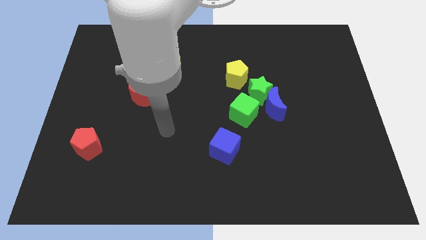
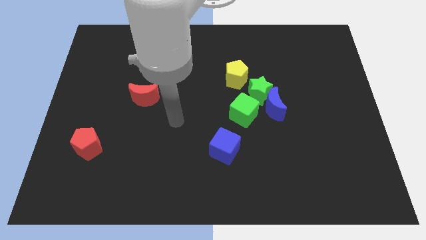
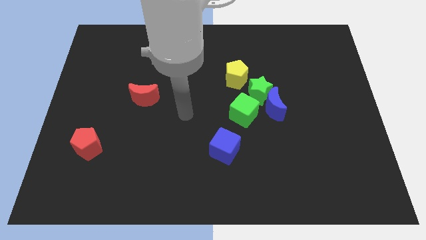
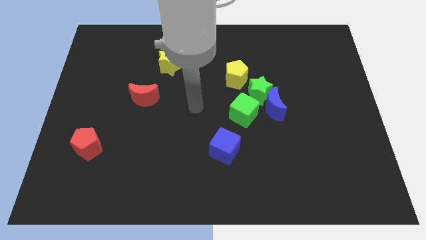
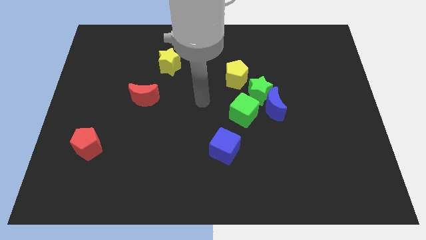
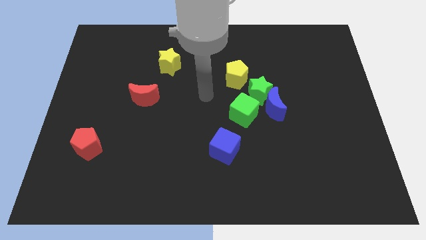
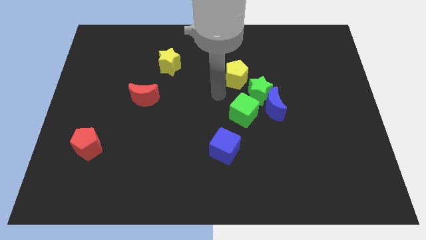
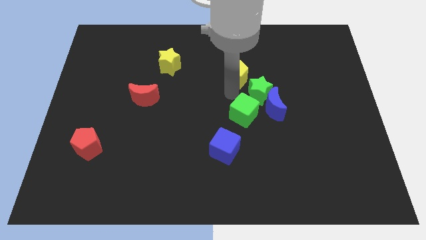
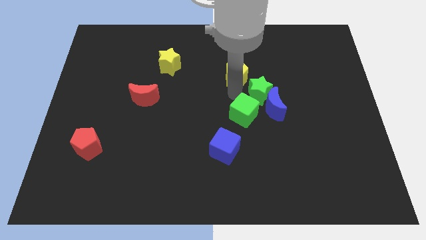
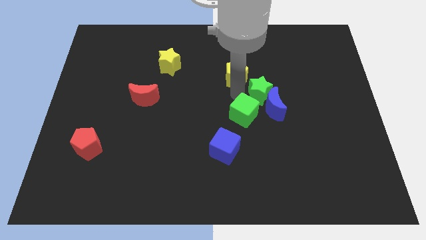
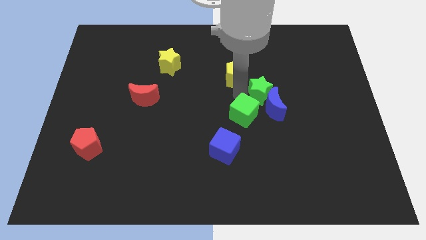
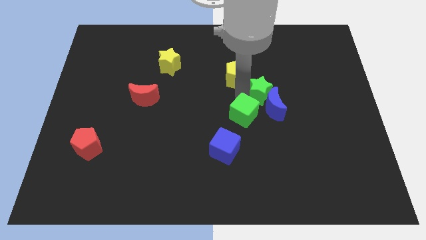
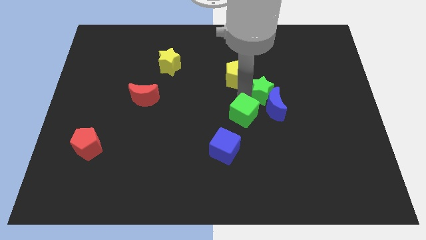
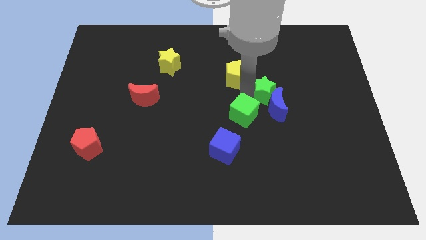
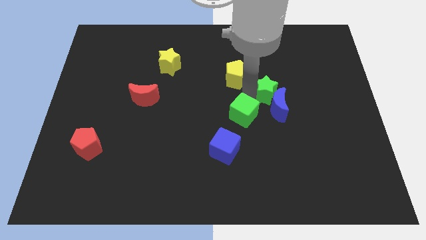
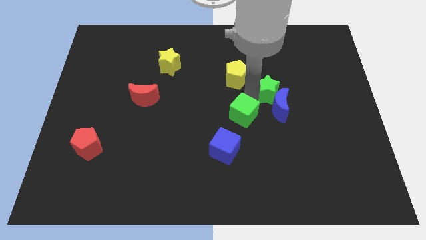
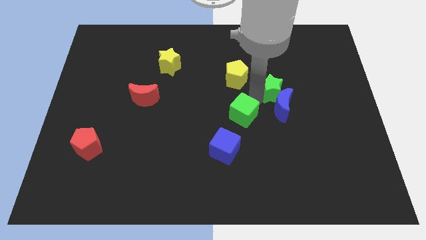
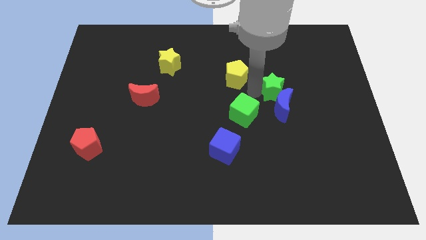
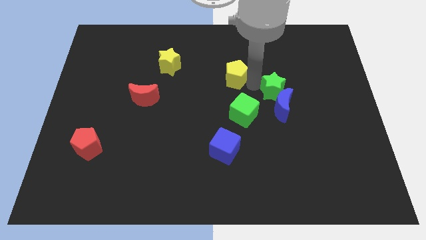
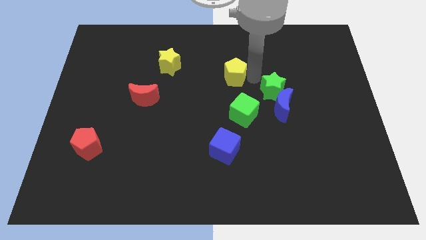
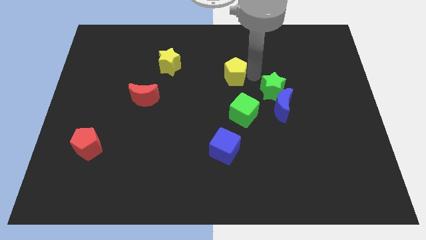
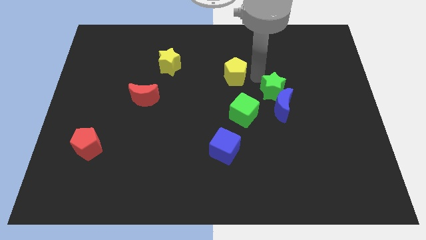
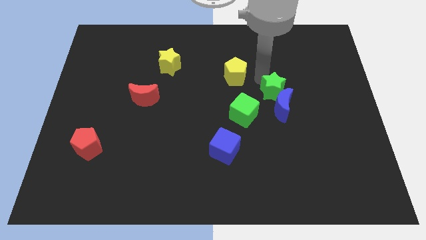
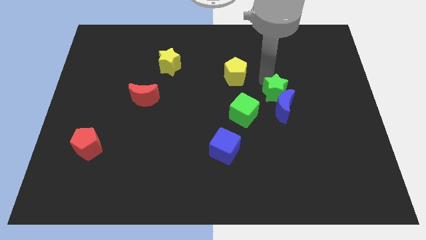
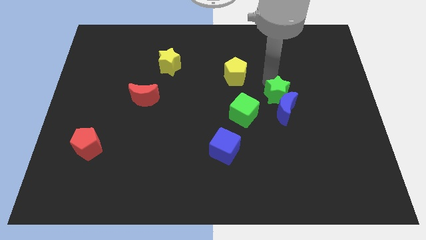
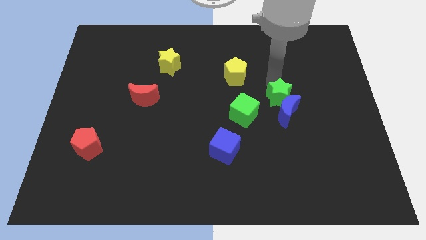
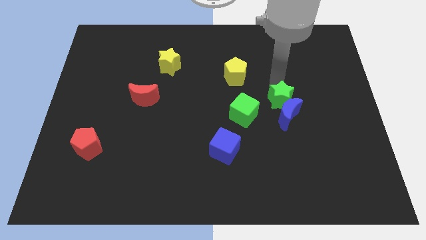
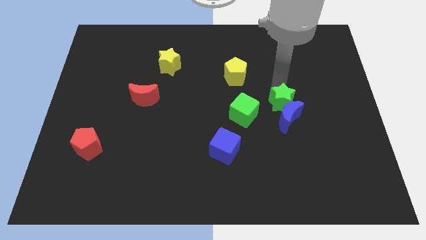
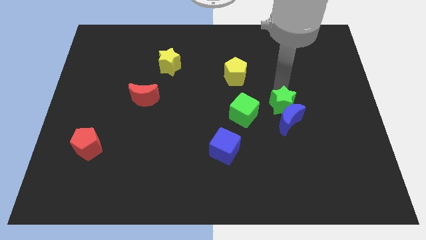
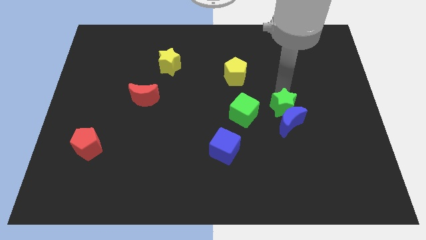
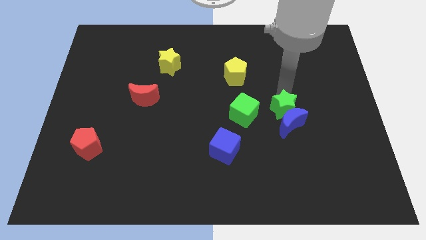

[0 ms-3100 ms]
slide the green star somewhat downwards and to the right

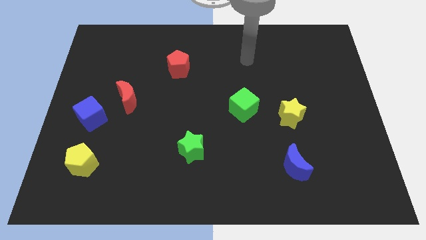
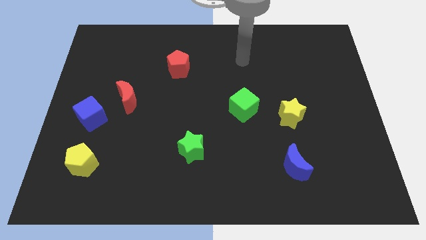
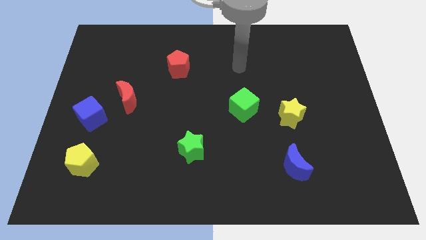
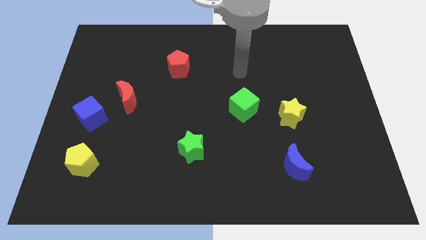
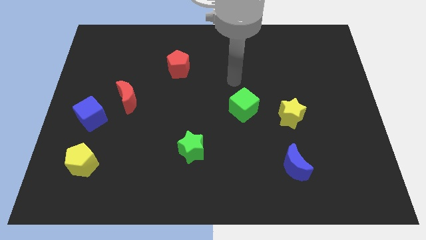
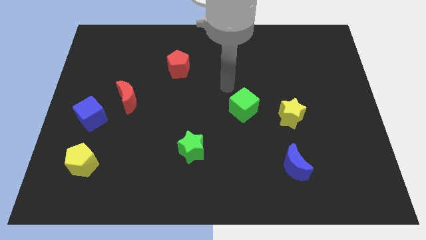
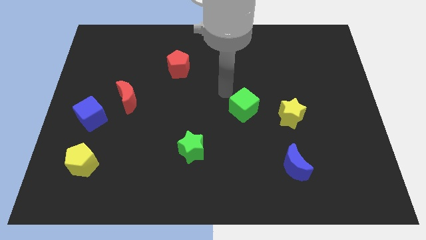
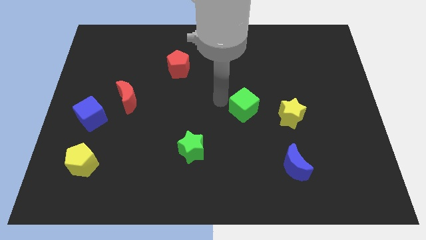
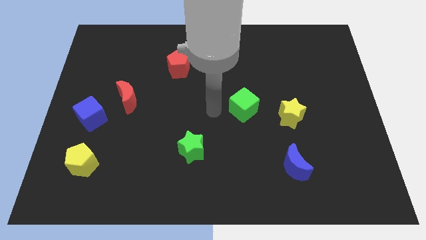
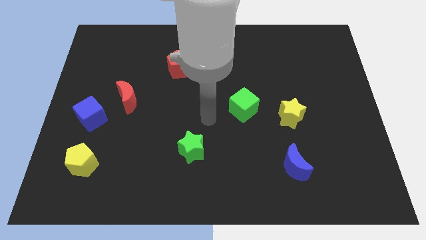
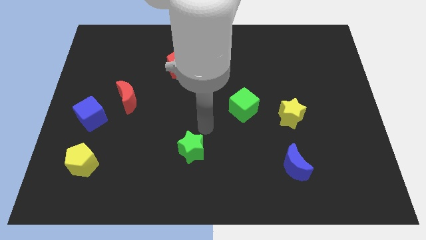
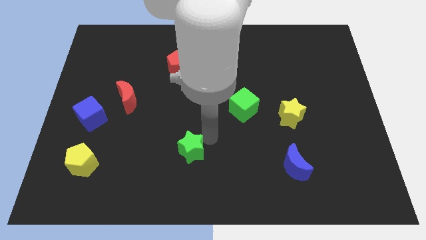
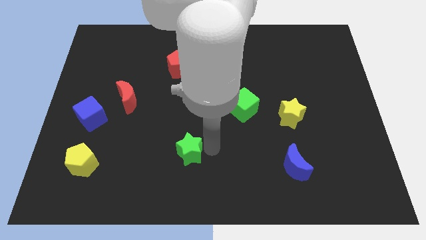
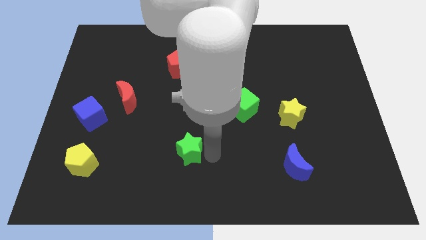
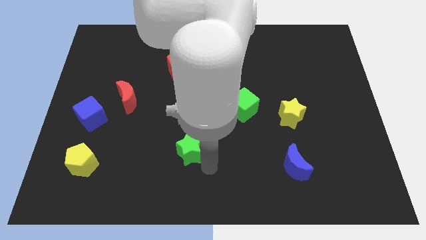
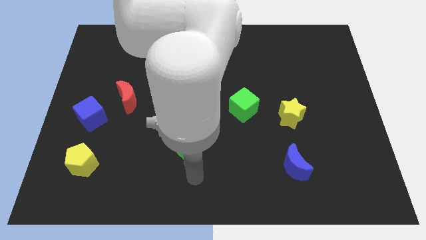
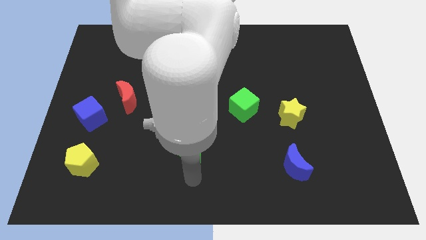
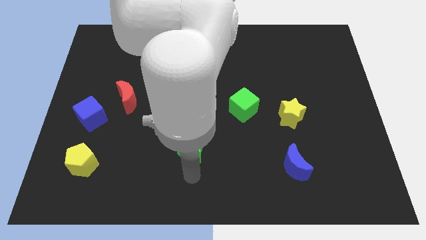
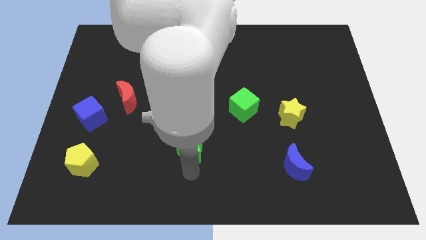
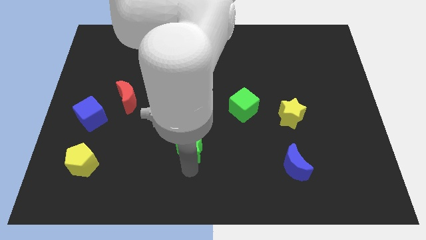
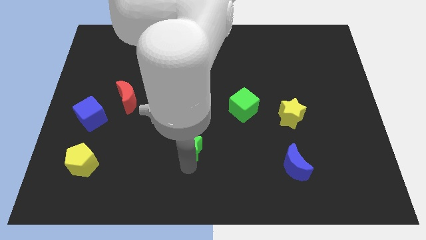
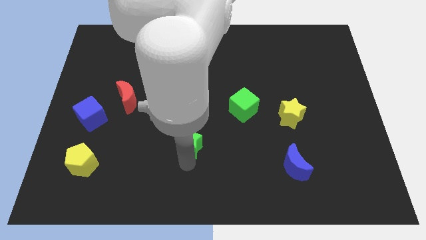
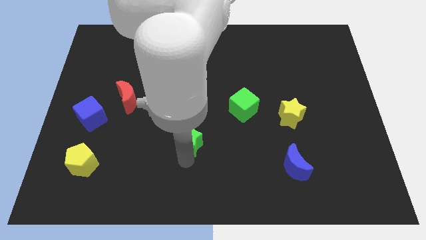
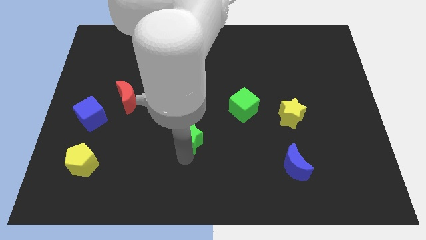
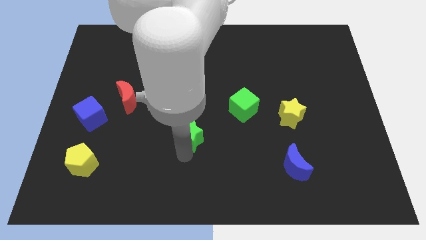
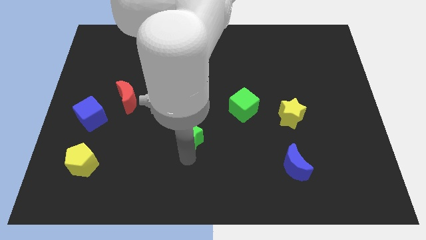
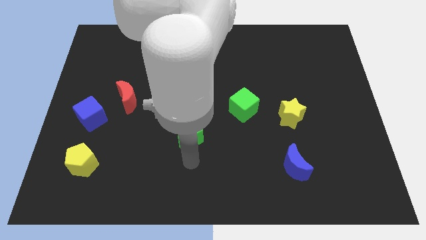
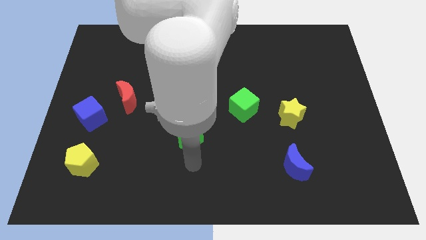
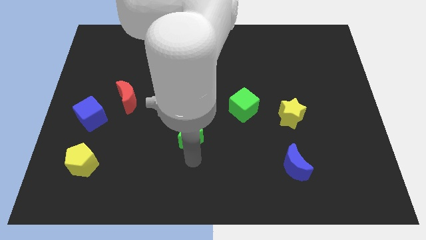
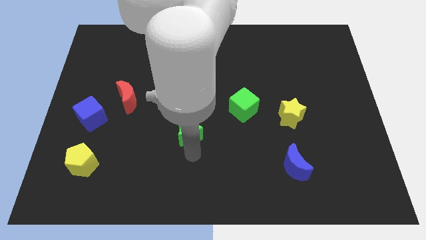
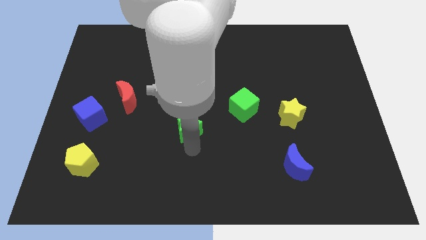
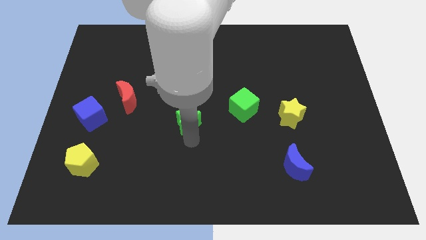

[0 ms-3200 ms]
slightly slide the green star up

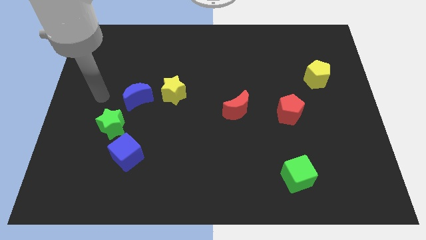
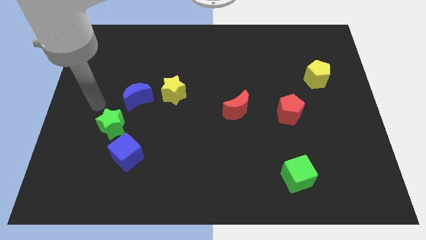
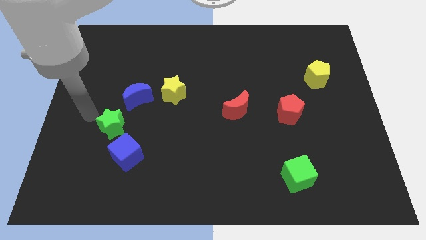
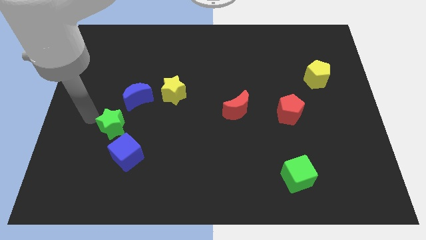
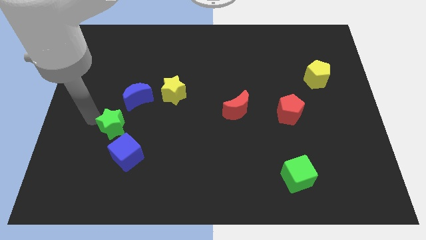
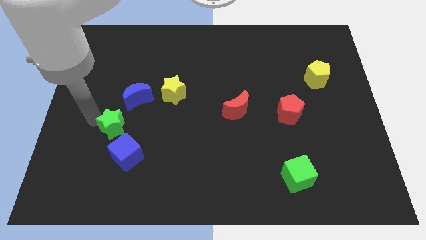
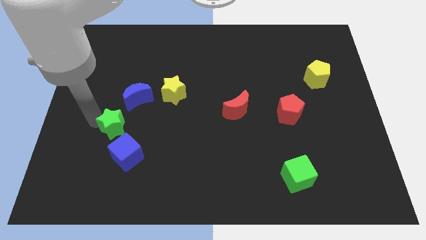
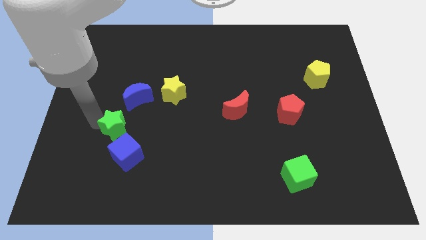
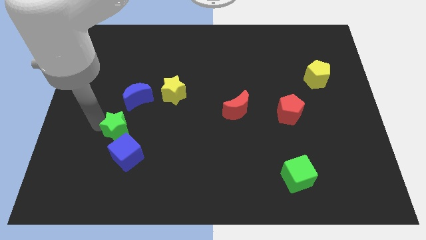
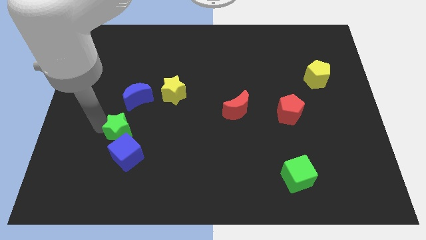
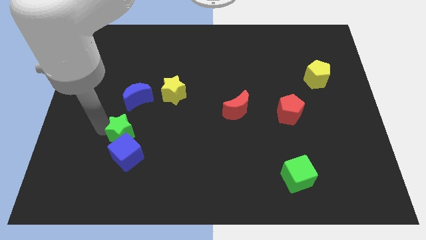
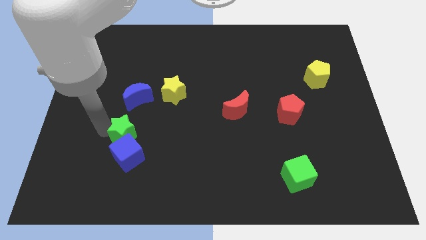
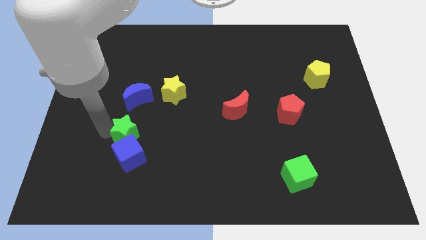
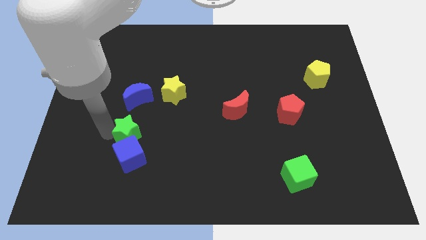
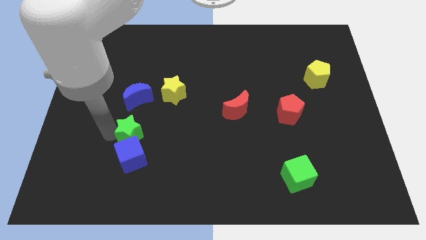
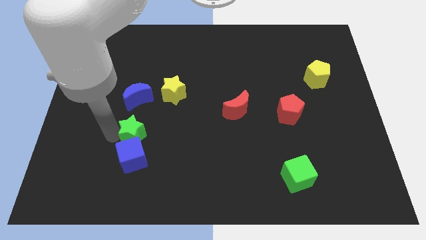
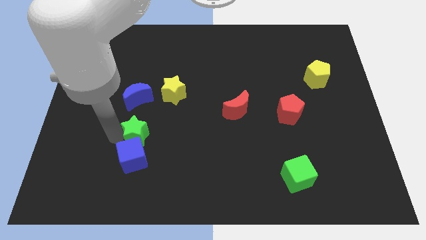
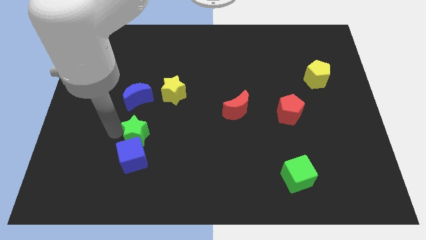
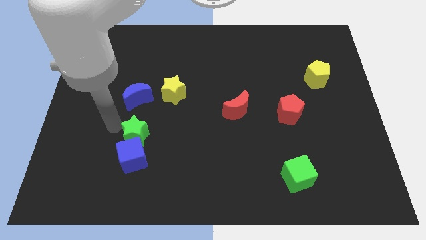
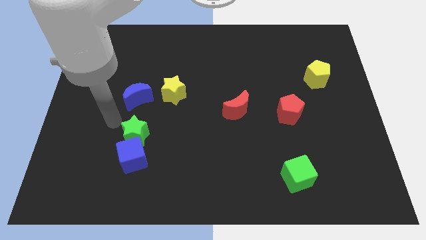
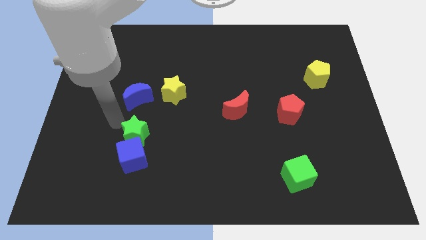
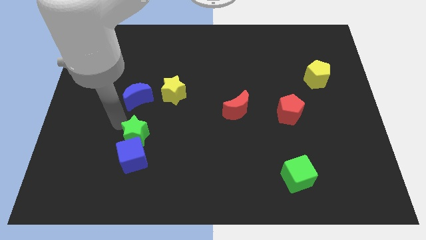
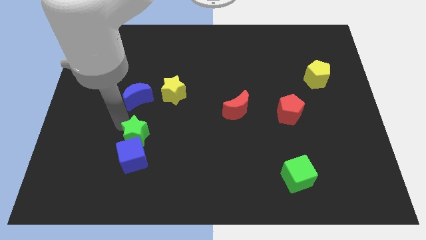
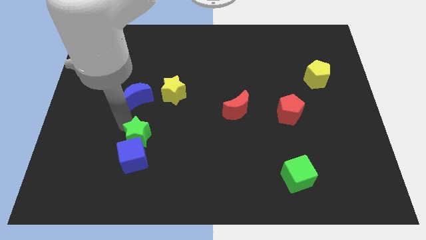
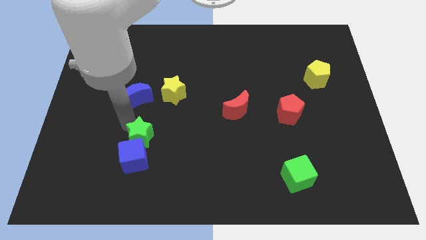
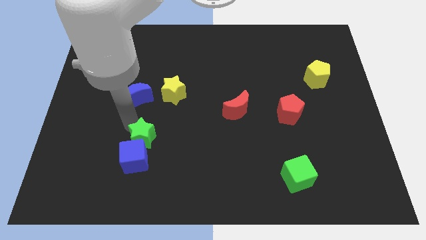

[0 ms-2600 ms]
push the green star somewhat downwards and to the right
